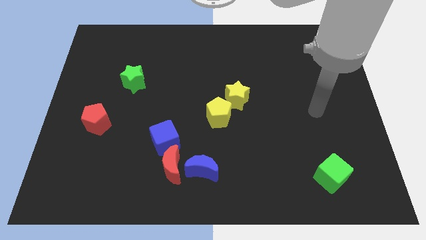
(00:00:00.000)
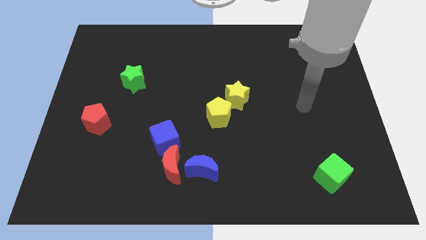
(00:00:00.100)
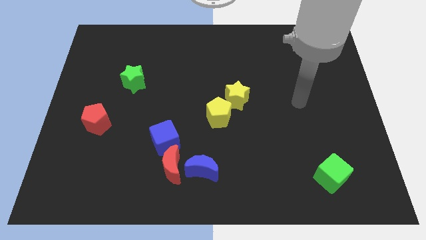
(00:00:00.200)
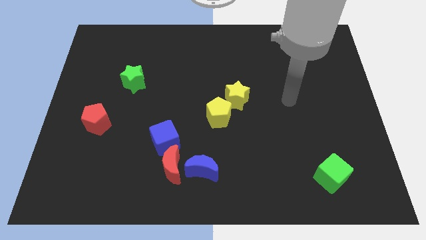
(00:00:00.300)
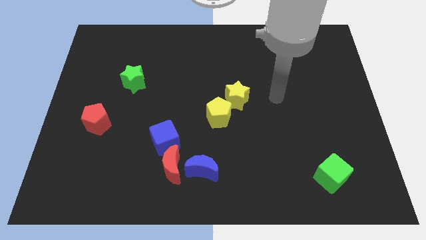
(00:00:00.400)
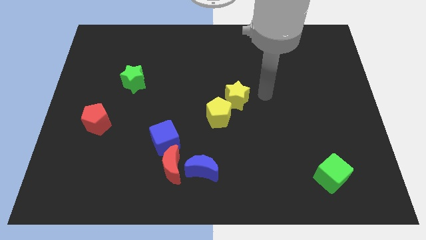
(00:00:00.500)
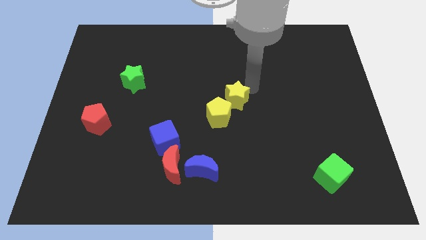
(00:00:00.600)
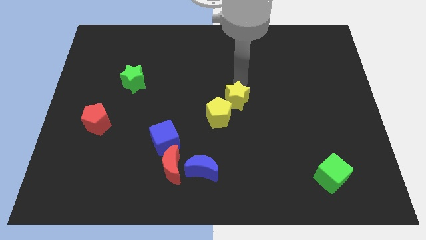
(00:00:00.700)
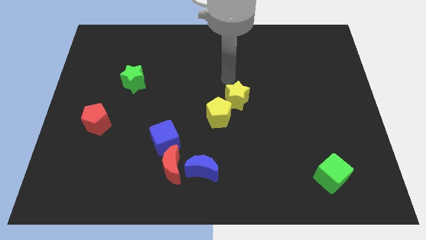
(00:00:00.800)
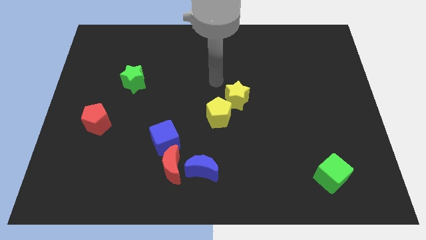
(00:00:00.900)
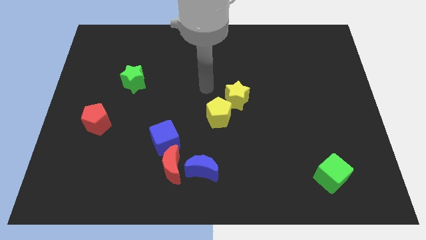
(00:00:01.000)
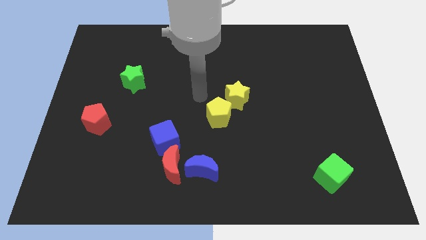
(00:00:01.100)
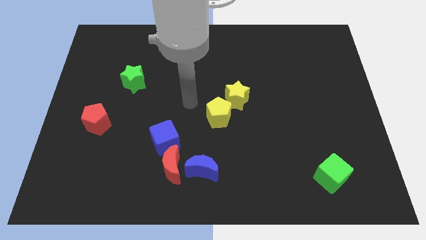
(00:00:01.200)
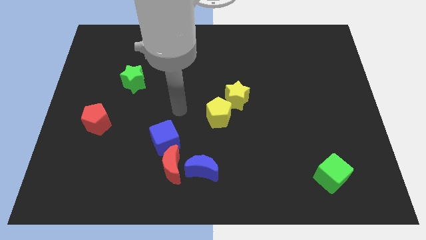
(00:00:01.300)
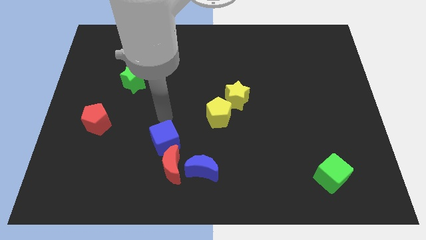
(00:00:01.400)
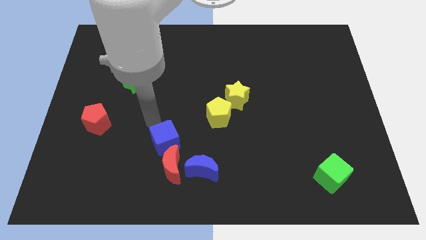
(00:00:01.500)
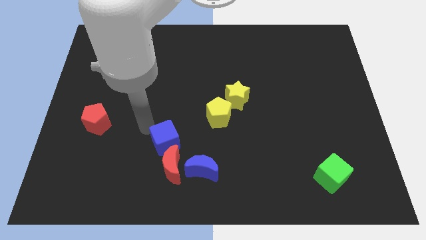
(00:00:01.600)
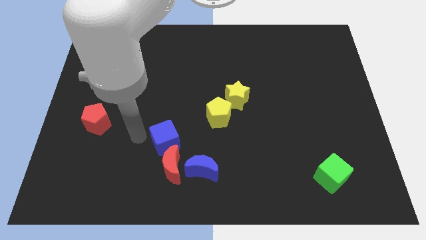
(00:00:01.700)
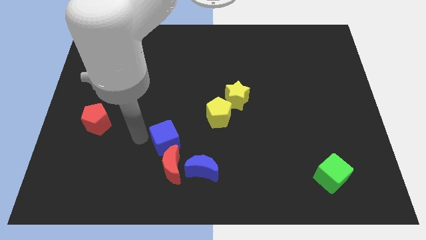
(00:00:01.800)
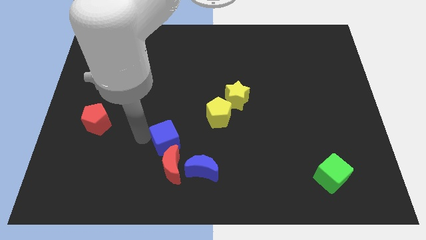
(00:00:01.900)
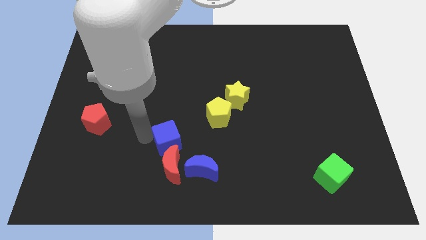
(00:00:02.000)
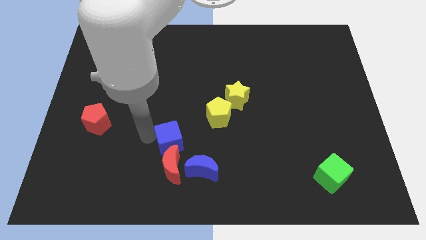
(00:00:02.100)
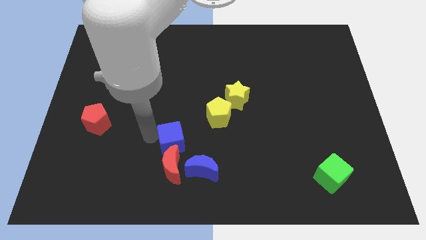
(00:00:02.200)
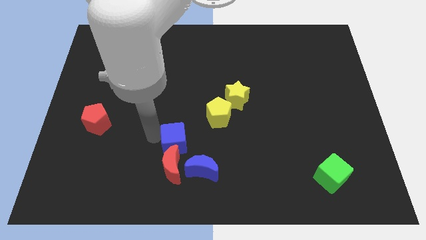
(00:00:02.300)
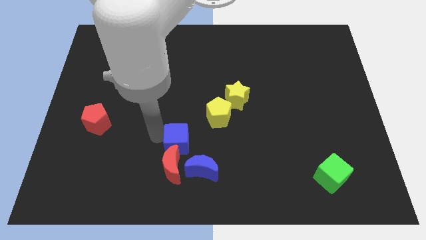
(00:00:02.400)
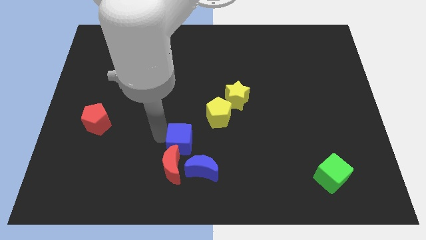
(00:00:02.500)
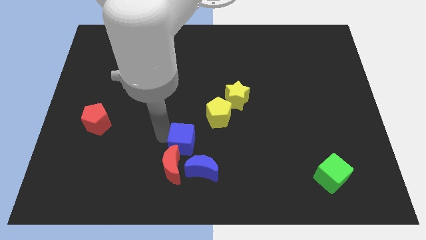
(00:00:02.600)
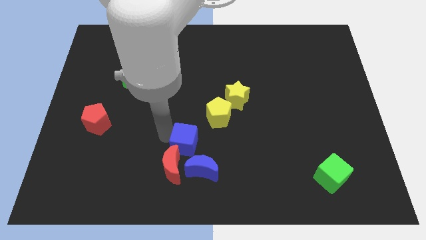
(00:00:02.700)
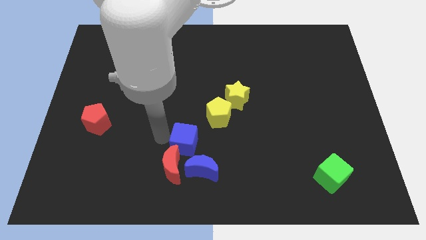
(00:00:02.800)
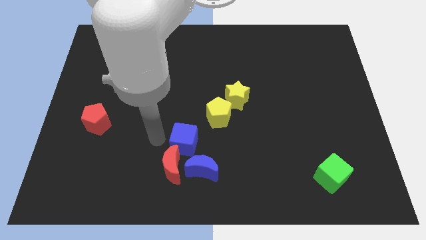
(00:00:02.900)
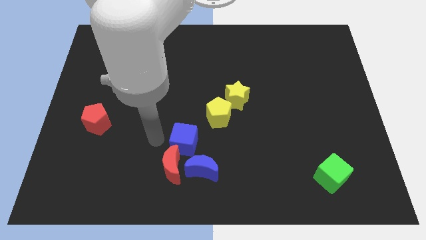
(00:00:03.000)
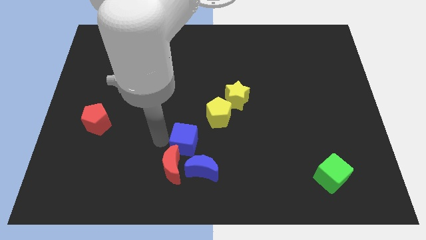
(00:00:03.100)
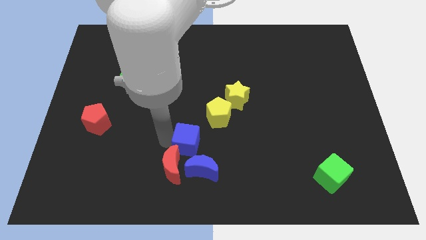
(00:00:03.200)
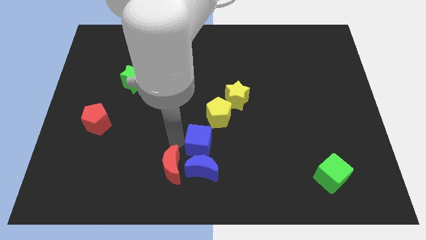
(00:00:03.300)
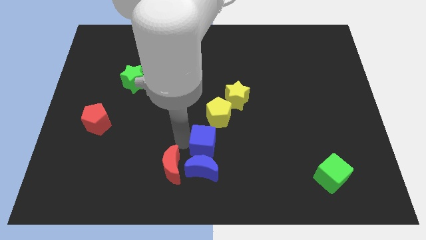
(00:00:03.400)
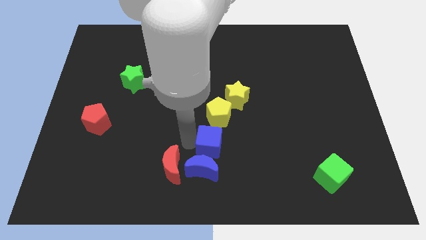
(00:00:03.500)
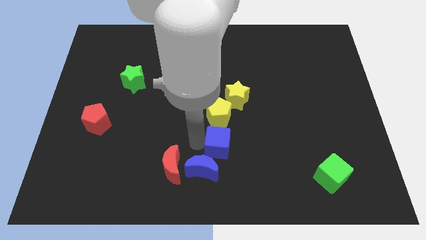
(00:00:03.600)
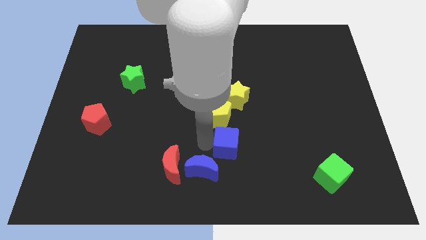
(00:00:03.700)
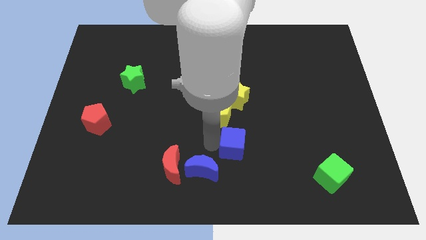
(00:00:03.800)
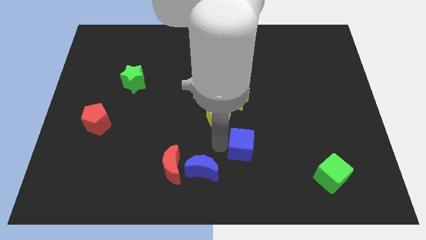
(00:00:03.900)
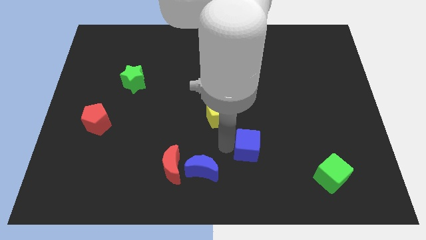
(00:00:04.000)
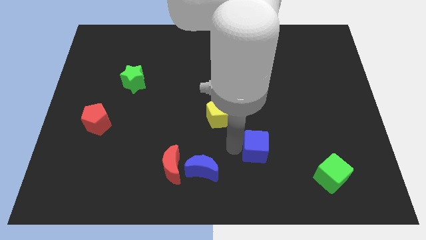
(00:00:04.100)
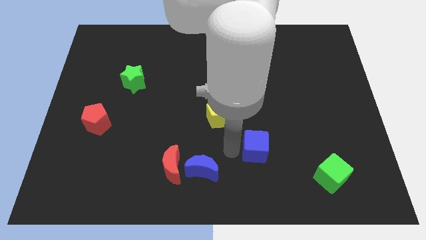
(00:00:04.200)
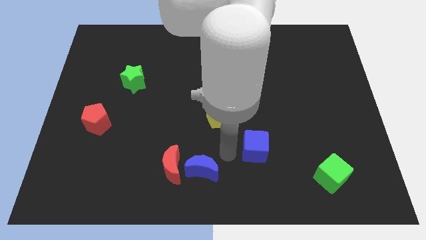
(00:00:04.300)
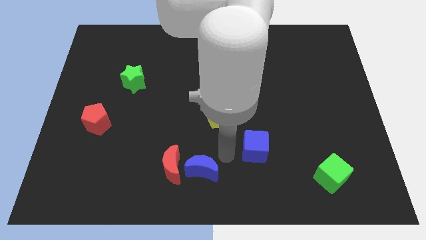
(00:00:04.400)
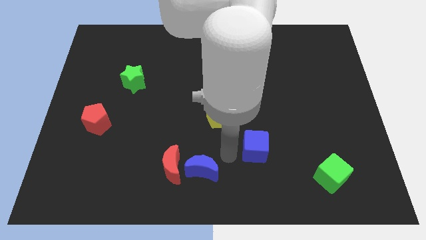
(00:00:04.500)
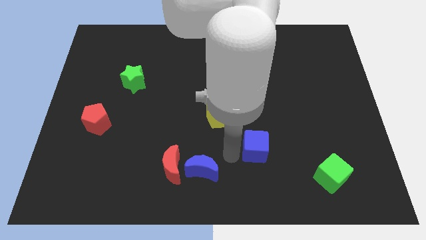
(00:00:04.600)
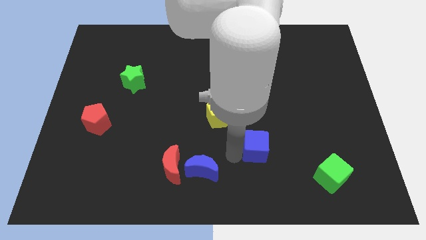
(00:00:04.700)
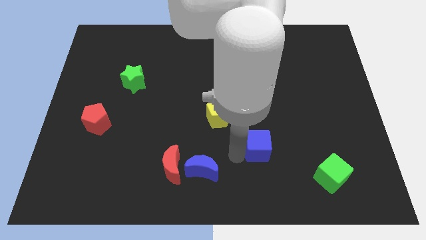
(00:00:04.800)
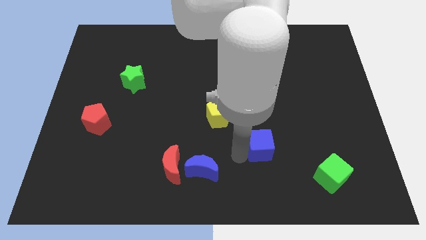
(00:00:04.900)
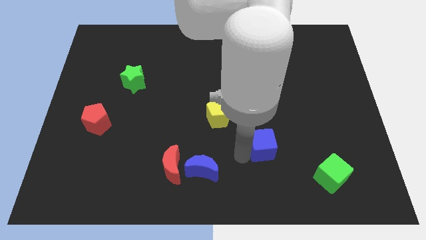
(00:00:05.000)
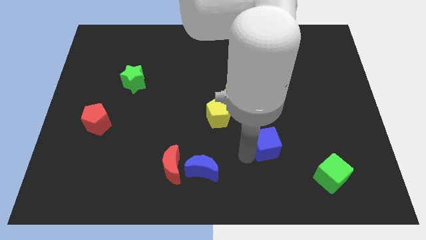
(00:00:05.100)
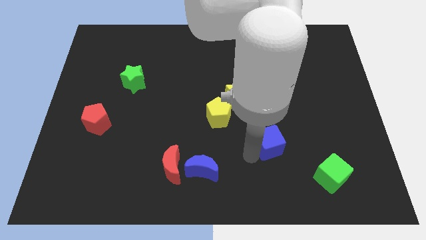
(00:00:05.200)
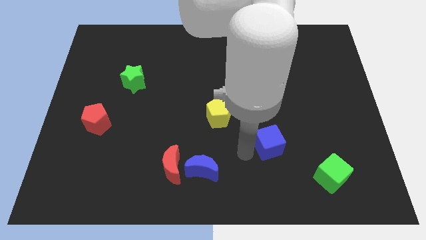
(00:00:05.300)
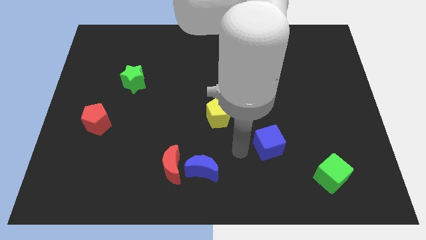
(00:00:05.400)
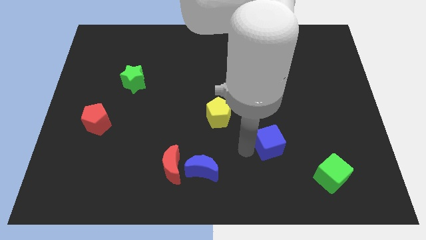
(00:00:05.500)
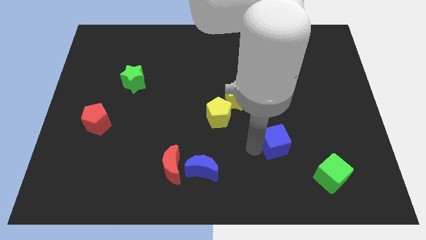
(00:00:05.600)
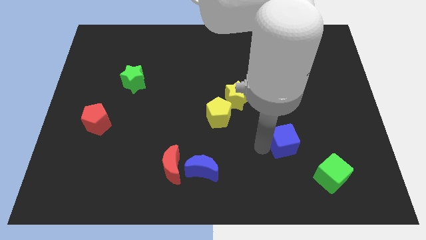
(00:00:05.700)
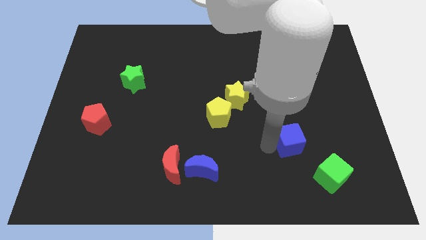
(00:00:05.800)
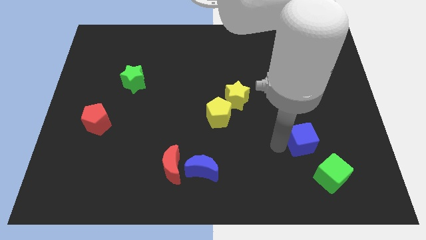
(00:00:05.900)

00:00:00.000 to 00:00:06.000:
put the blue cube to the top side of the green cube
